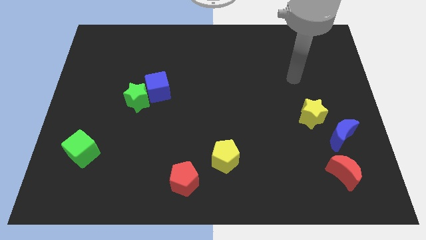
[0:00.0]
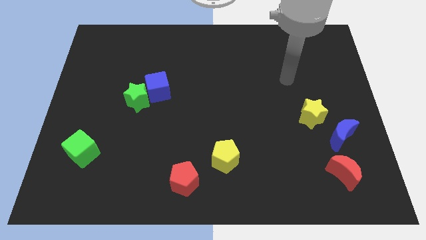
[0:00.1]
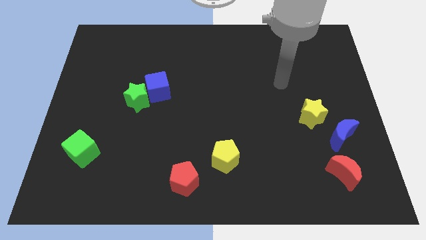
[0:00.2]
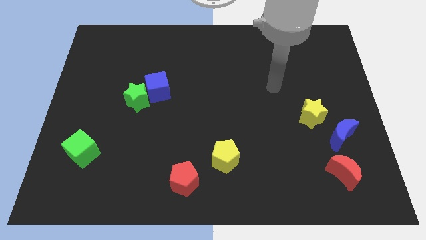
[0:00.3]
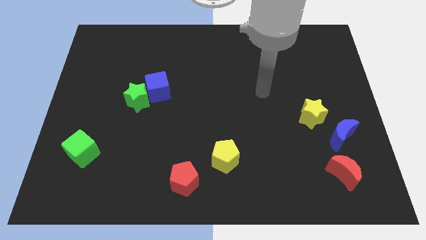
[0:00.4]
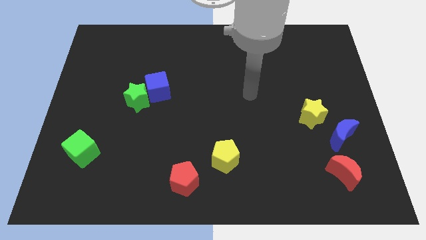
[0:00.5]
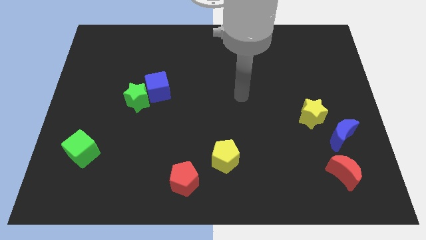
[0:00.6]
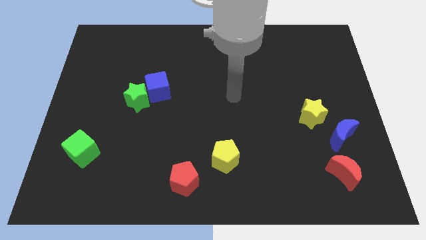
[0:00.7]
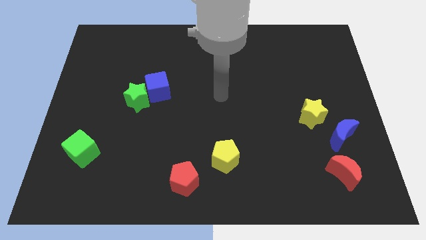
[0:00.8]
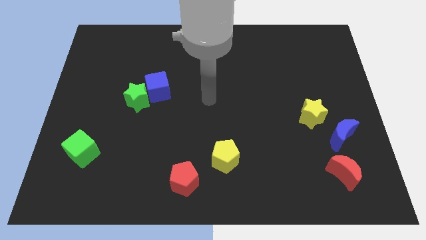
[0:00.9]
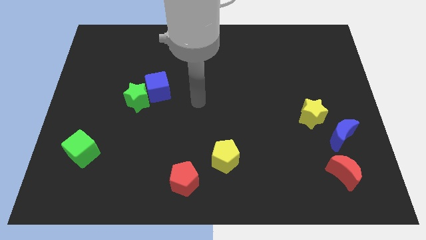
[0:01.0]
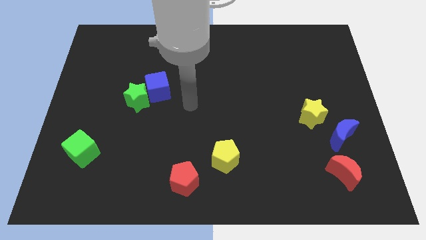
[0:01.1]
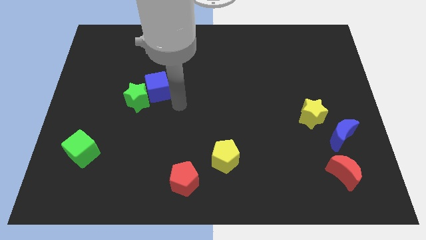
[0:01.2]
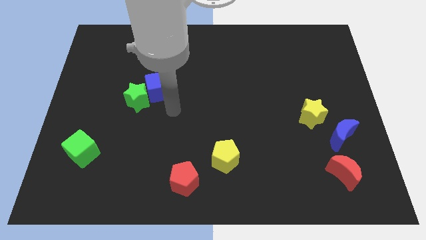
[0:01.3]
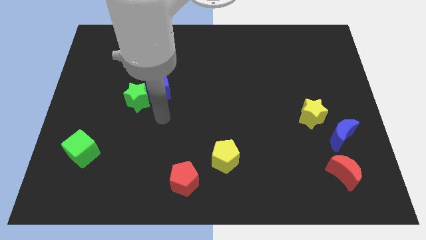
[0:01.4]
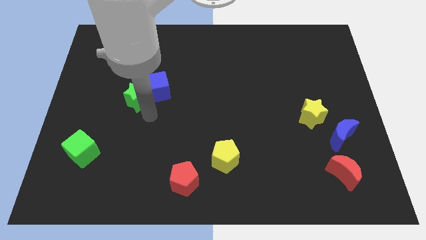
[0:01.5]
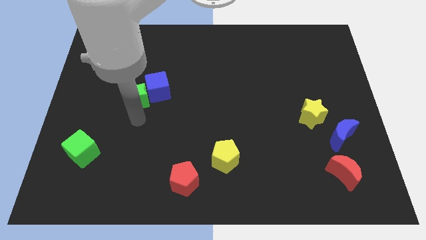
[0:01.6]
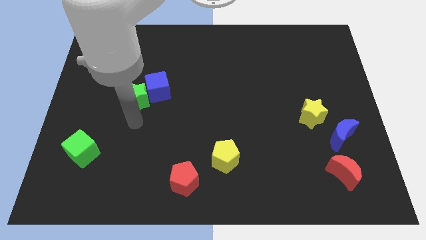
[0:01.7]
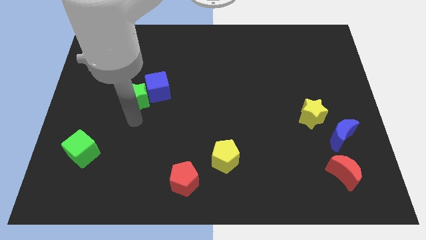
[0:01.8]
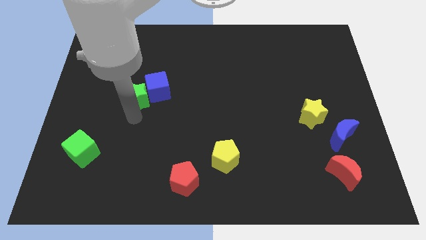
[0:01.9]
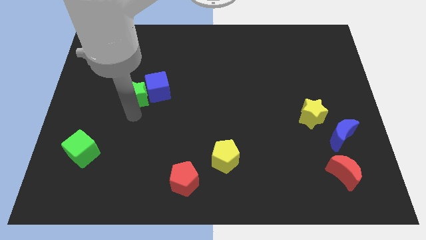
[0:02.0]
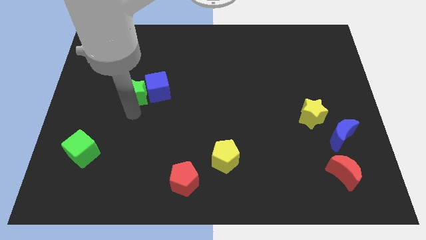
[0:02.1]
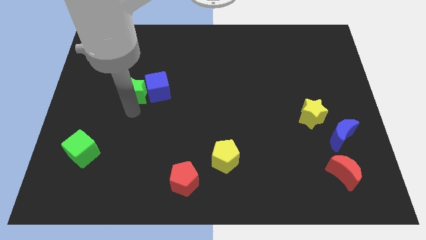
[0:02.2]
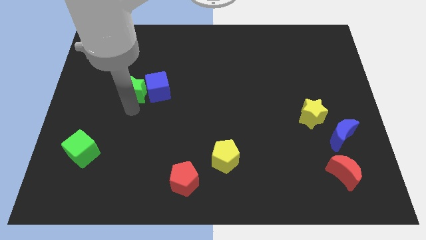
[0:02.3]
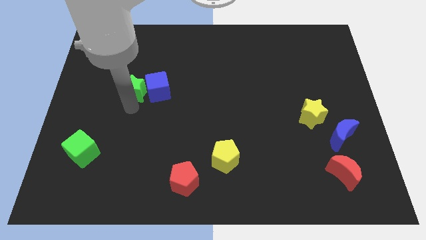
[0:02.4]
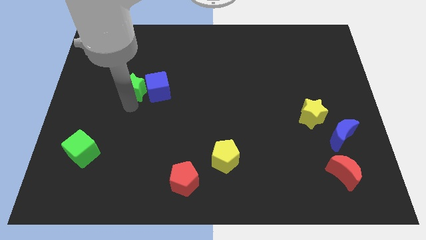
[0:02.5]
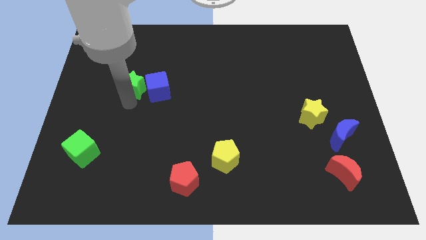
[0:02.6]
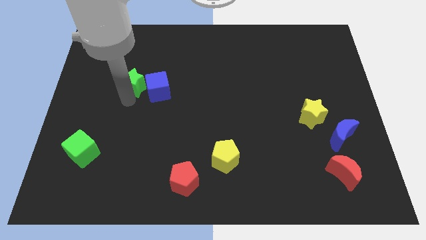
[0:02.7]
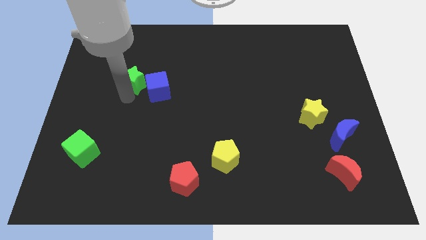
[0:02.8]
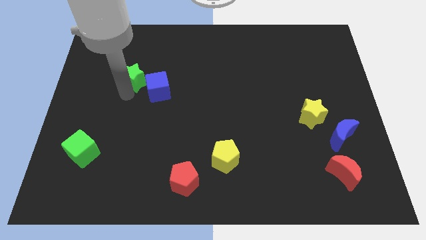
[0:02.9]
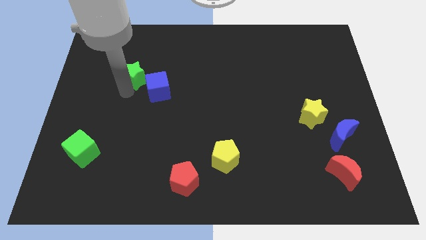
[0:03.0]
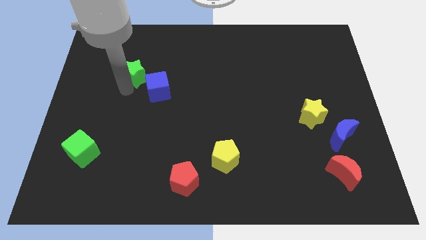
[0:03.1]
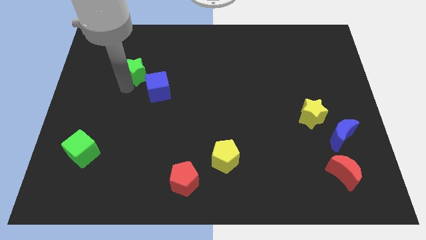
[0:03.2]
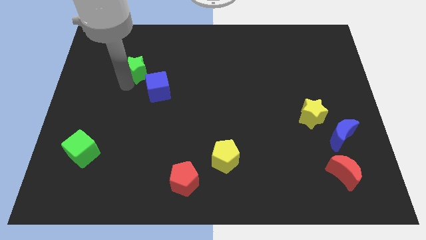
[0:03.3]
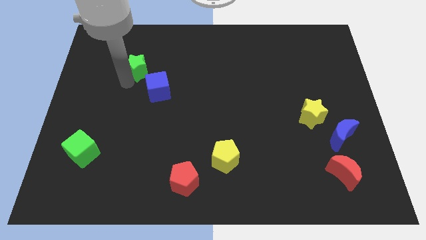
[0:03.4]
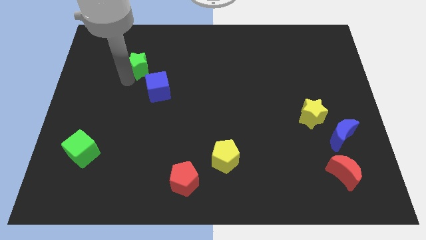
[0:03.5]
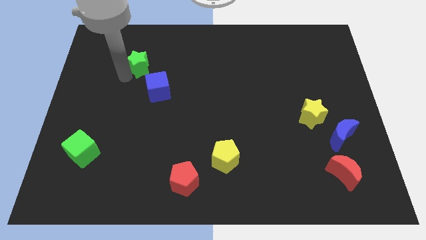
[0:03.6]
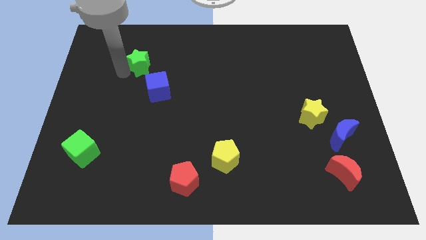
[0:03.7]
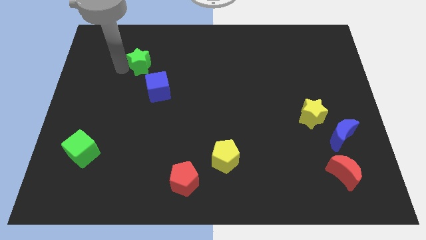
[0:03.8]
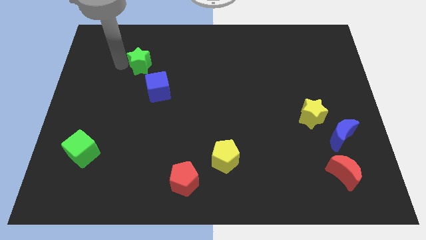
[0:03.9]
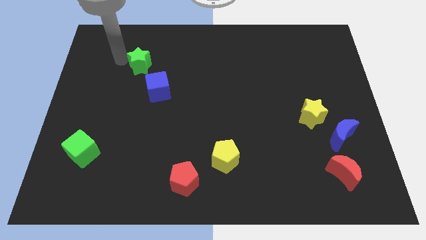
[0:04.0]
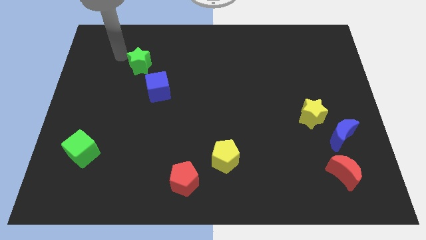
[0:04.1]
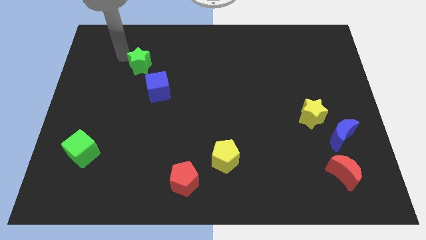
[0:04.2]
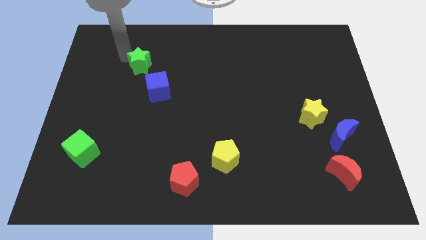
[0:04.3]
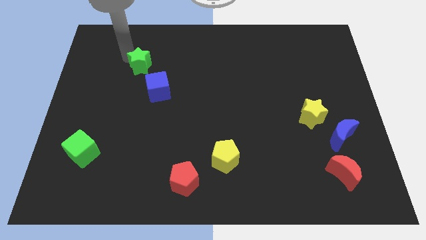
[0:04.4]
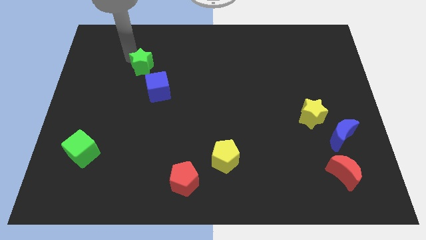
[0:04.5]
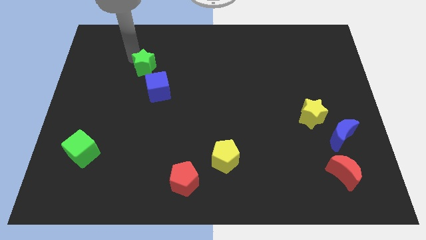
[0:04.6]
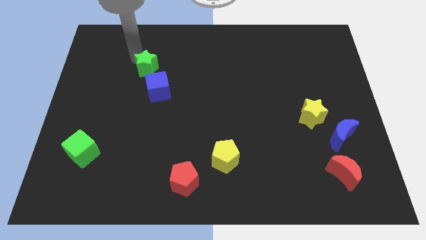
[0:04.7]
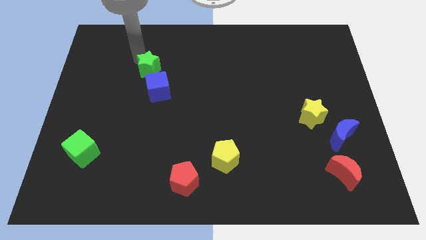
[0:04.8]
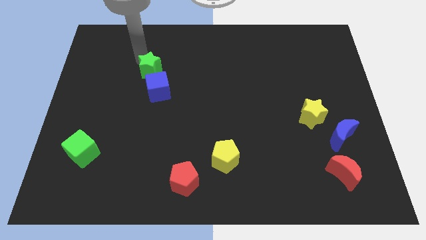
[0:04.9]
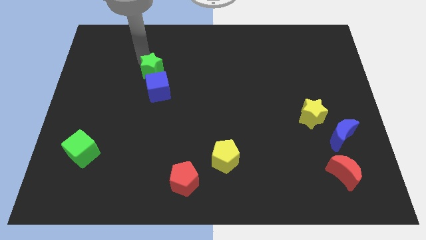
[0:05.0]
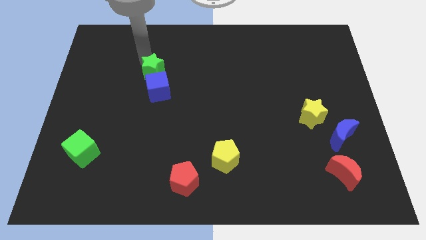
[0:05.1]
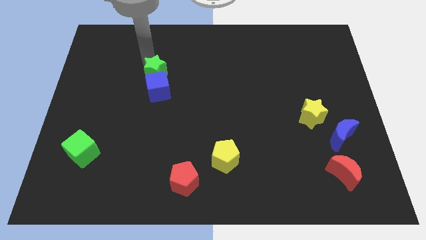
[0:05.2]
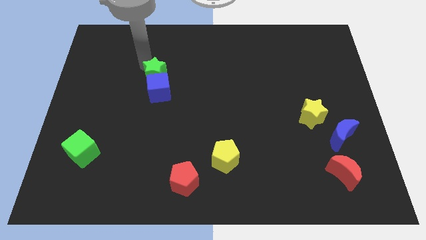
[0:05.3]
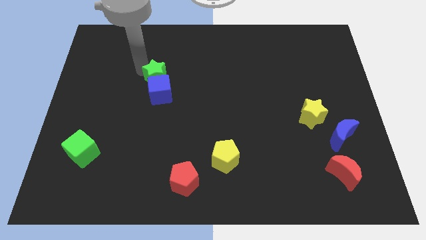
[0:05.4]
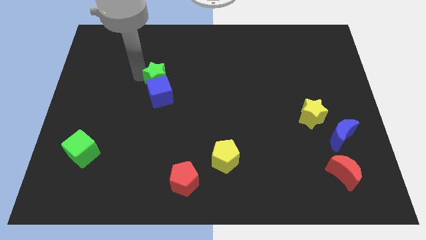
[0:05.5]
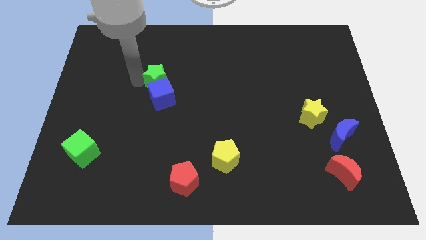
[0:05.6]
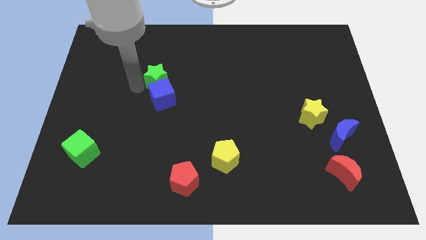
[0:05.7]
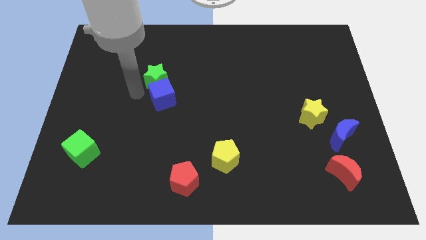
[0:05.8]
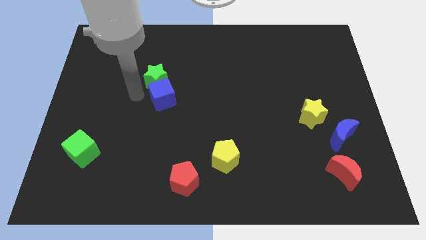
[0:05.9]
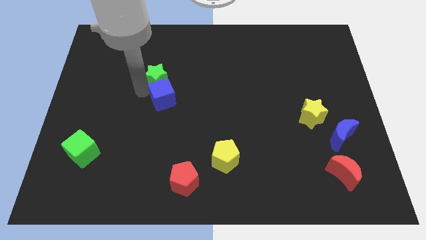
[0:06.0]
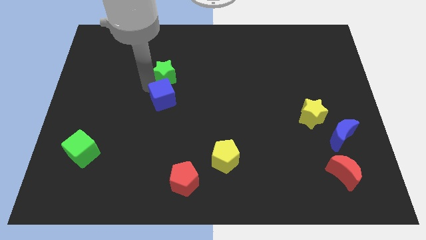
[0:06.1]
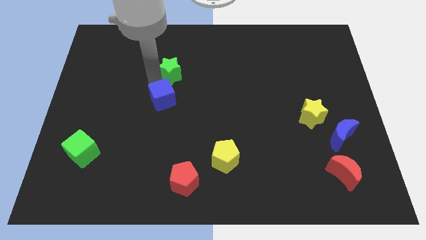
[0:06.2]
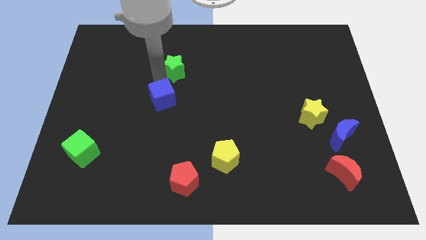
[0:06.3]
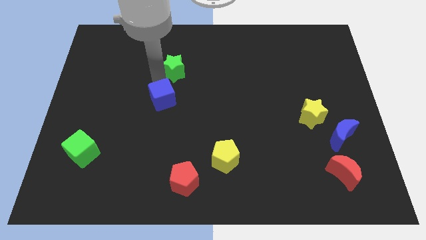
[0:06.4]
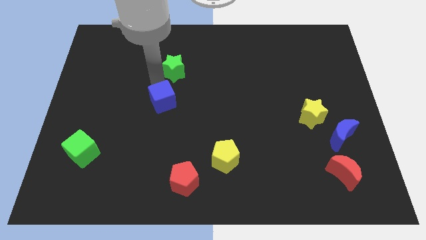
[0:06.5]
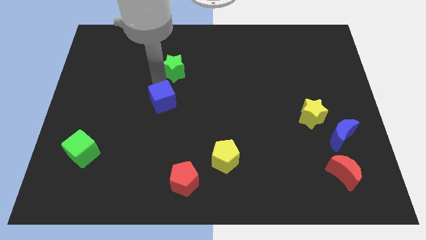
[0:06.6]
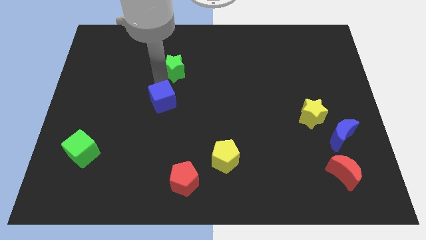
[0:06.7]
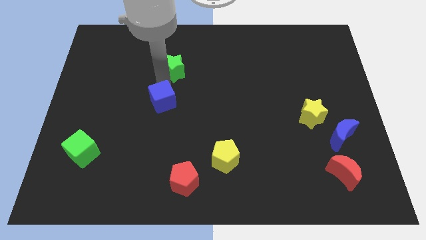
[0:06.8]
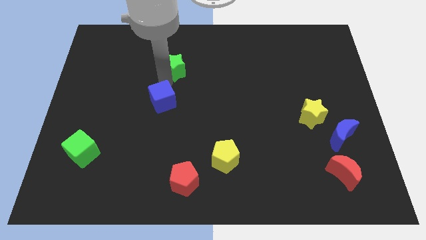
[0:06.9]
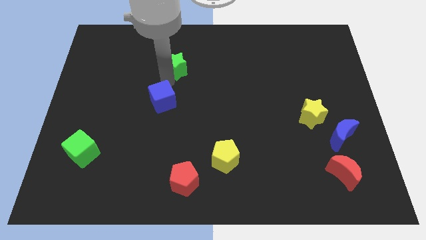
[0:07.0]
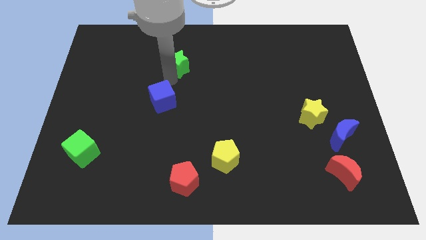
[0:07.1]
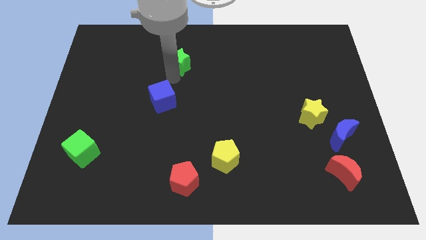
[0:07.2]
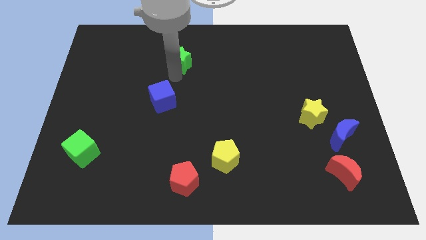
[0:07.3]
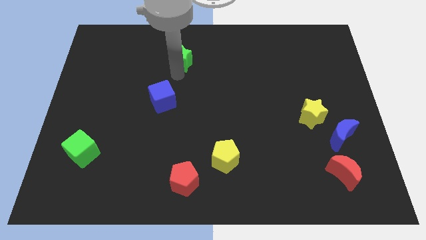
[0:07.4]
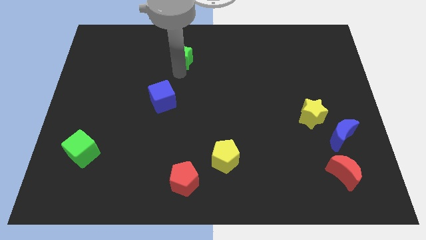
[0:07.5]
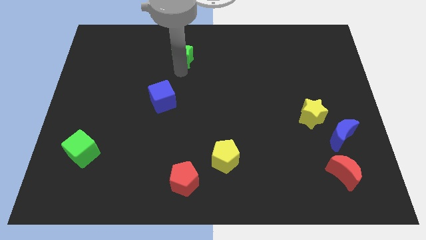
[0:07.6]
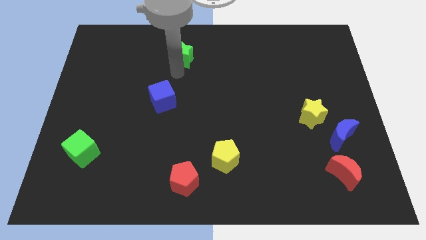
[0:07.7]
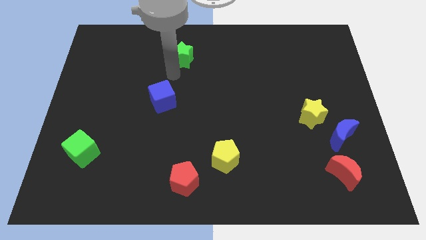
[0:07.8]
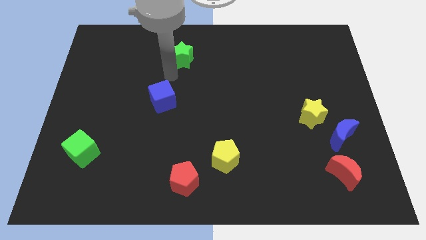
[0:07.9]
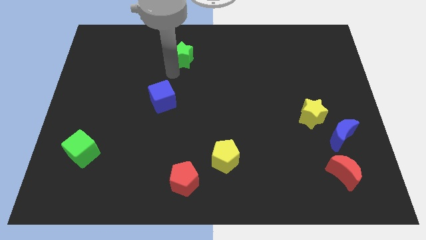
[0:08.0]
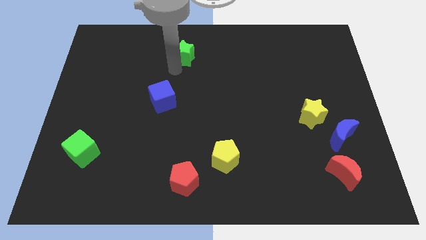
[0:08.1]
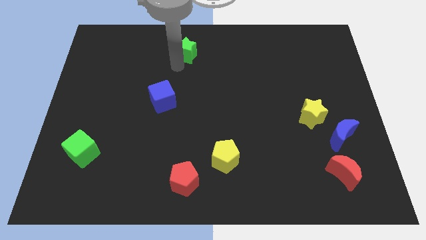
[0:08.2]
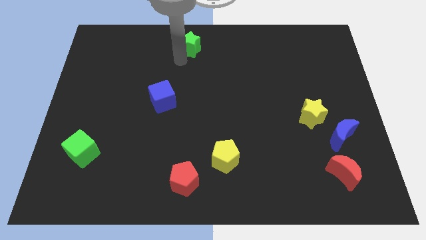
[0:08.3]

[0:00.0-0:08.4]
push the green star to the top side
